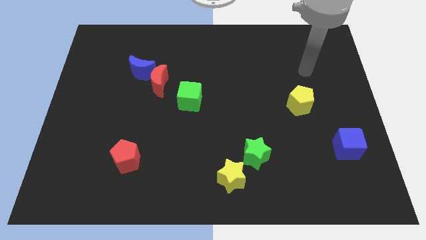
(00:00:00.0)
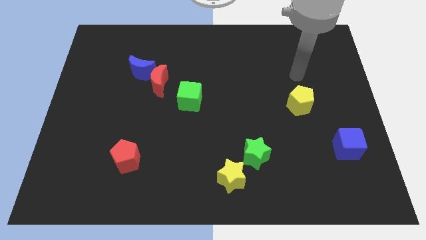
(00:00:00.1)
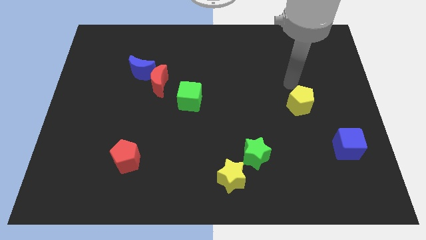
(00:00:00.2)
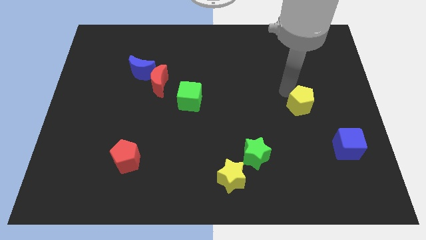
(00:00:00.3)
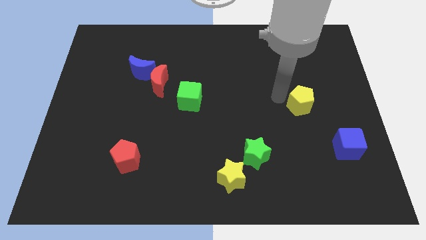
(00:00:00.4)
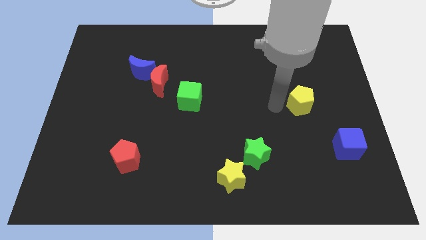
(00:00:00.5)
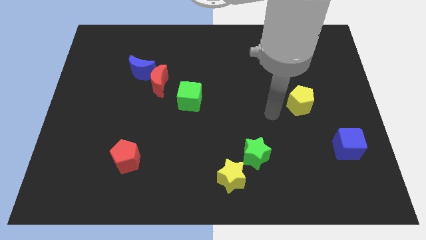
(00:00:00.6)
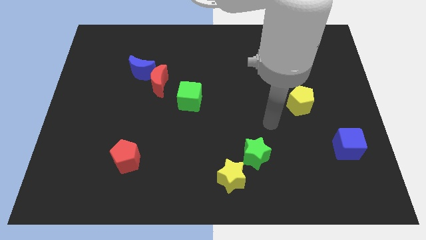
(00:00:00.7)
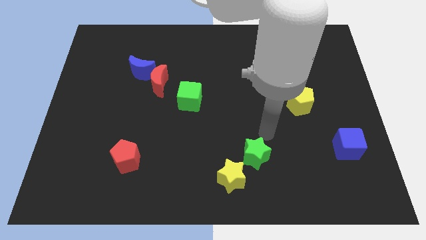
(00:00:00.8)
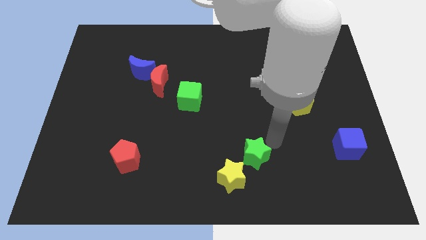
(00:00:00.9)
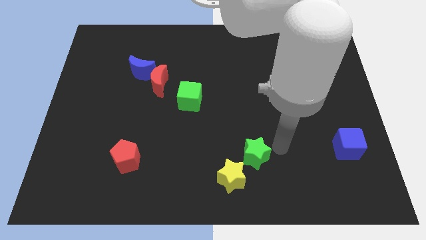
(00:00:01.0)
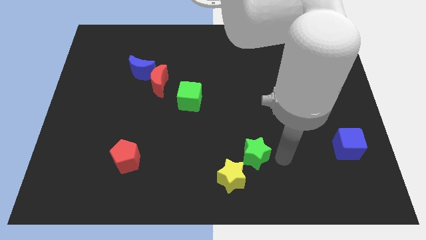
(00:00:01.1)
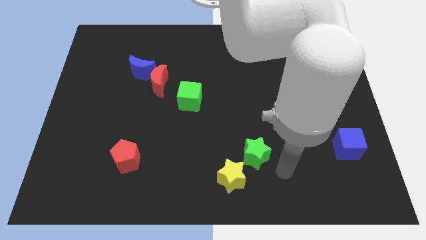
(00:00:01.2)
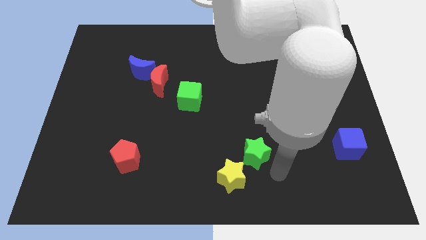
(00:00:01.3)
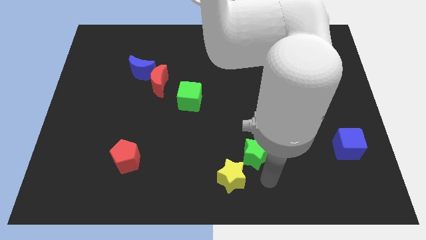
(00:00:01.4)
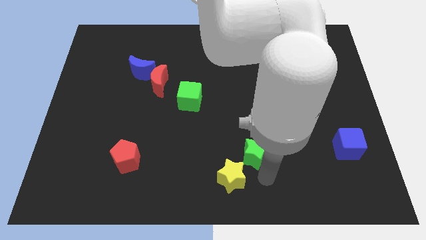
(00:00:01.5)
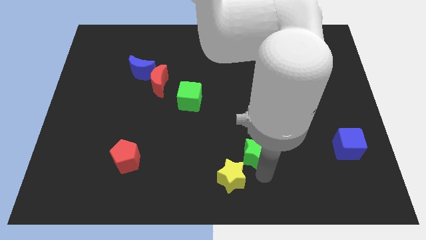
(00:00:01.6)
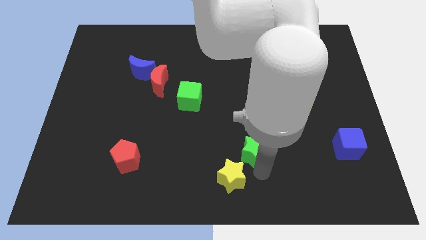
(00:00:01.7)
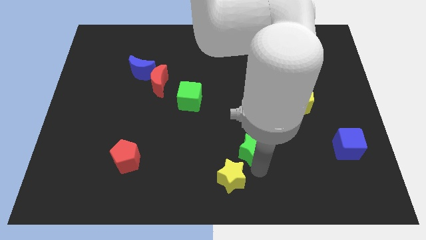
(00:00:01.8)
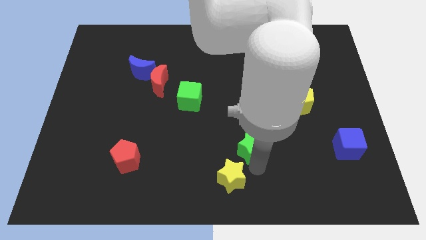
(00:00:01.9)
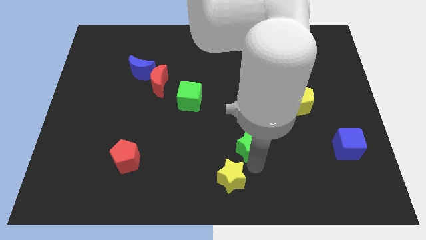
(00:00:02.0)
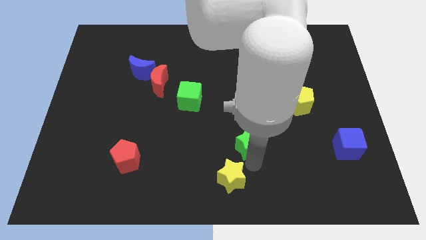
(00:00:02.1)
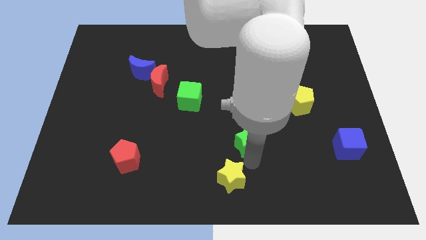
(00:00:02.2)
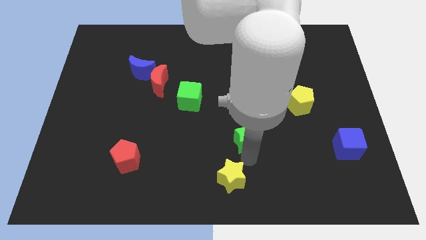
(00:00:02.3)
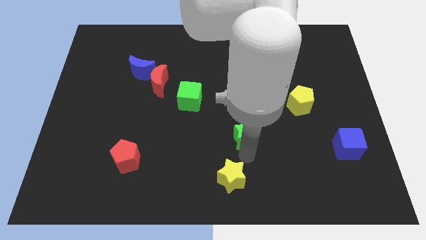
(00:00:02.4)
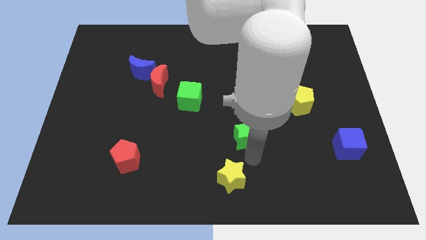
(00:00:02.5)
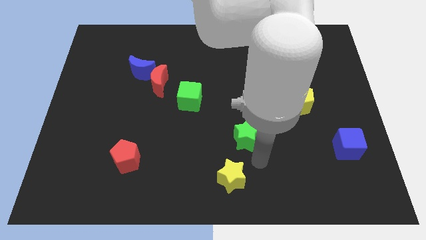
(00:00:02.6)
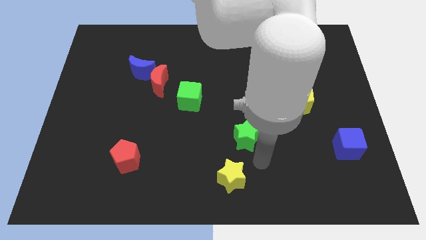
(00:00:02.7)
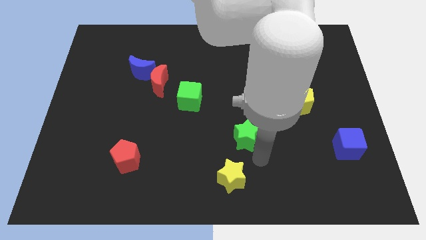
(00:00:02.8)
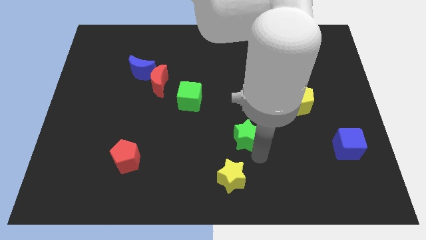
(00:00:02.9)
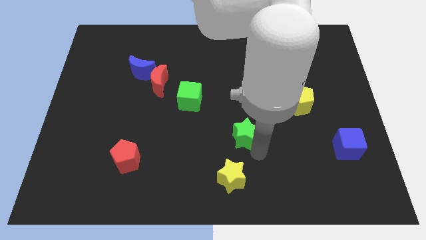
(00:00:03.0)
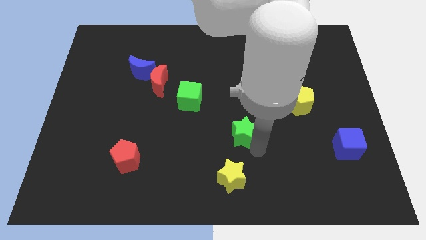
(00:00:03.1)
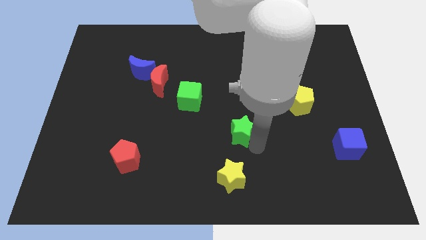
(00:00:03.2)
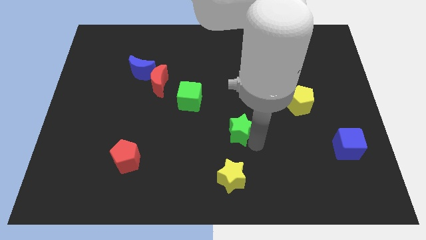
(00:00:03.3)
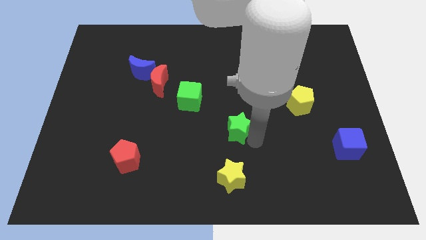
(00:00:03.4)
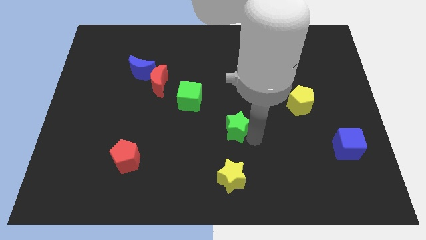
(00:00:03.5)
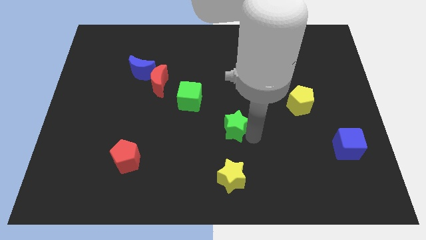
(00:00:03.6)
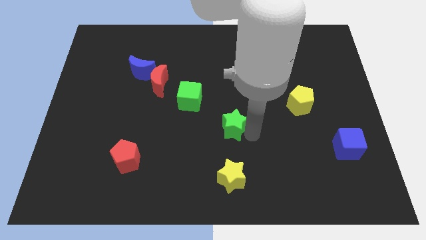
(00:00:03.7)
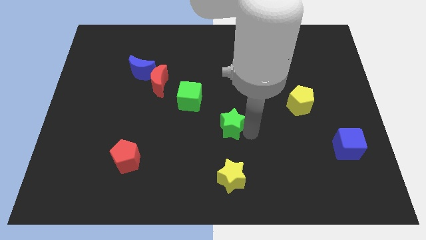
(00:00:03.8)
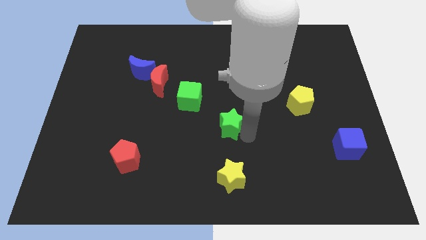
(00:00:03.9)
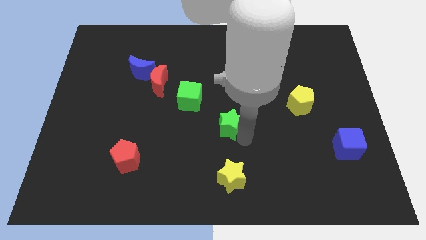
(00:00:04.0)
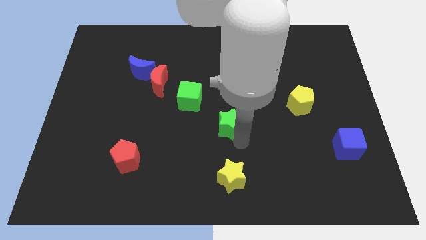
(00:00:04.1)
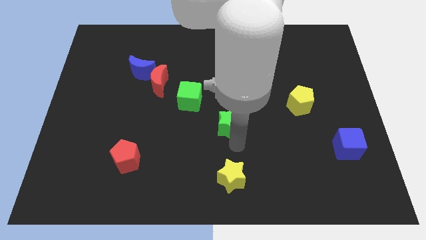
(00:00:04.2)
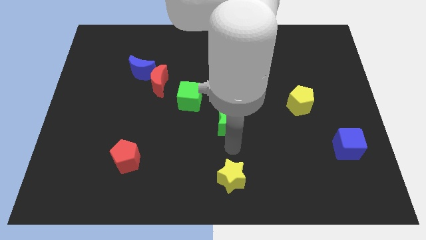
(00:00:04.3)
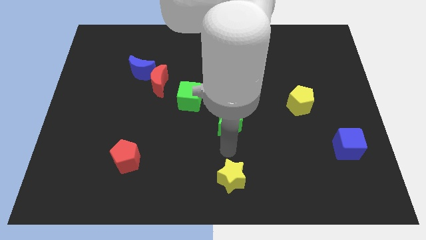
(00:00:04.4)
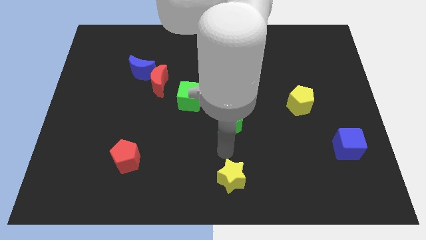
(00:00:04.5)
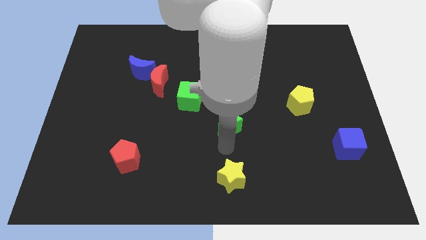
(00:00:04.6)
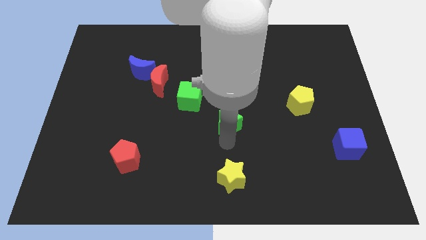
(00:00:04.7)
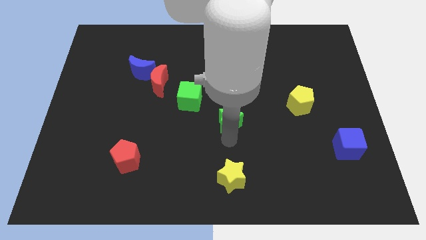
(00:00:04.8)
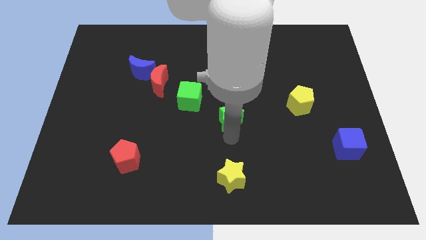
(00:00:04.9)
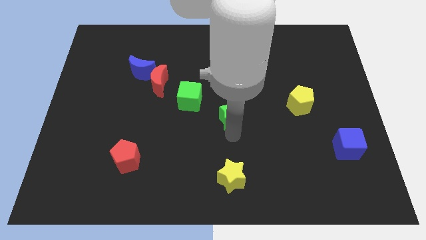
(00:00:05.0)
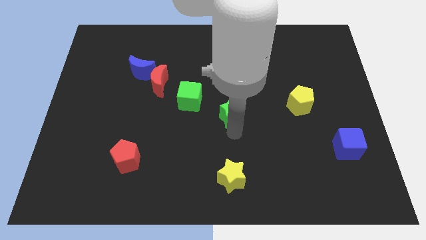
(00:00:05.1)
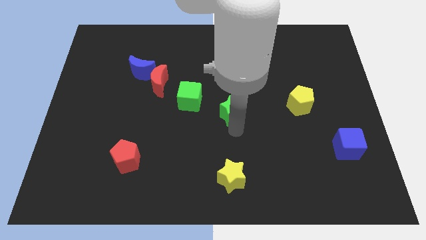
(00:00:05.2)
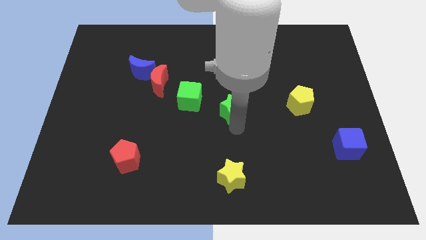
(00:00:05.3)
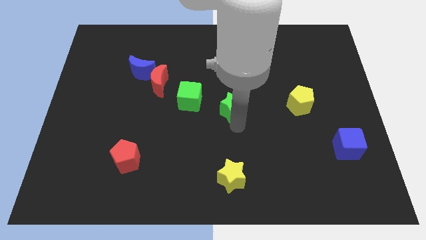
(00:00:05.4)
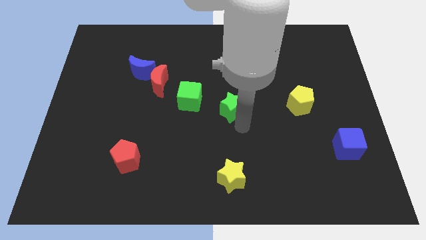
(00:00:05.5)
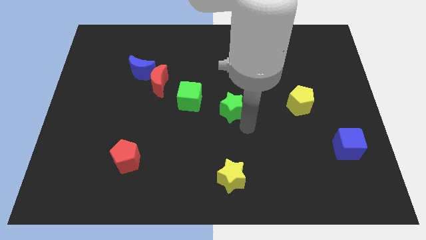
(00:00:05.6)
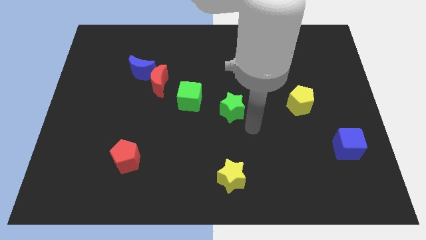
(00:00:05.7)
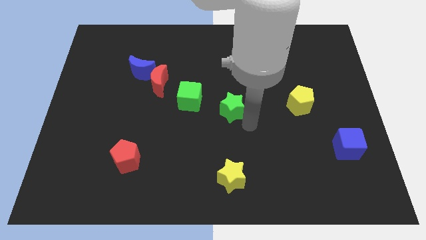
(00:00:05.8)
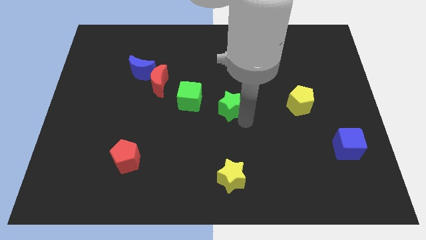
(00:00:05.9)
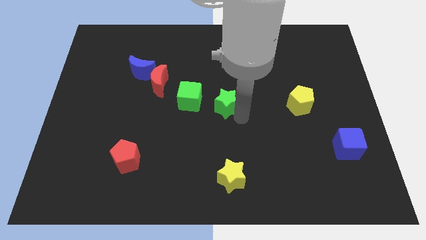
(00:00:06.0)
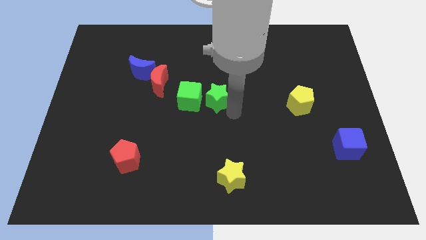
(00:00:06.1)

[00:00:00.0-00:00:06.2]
slide the green star to the top right of the green cube

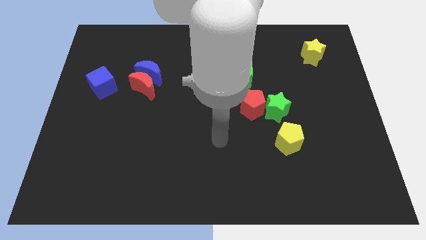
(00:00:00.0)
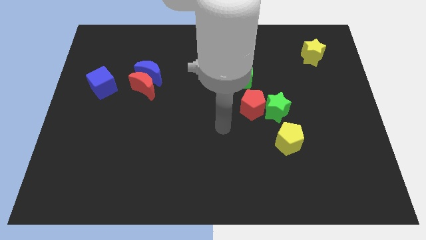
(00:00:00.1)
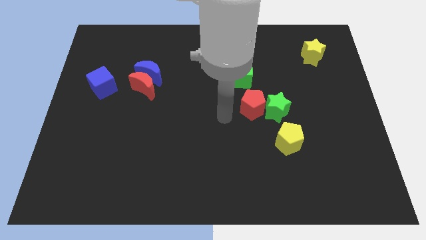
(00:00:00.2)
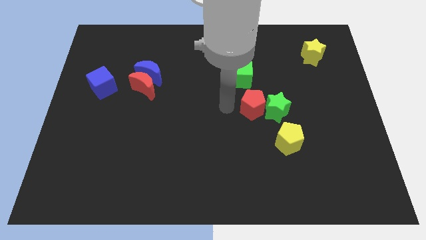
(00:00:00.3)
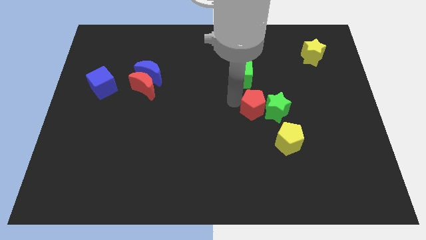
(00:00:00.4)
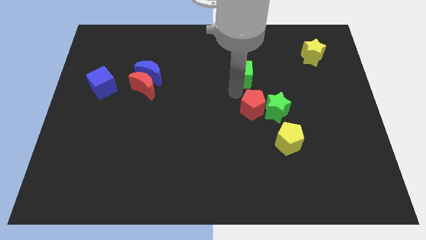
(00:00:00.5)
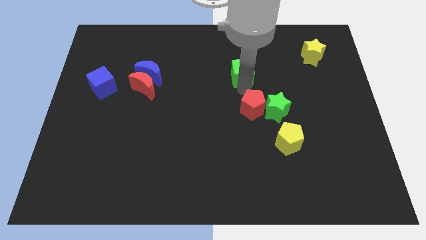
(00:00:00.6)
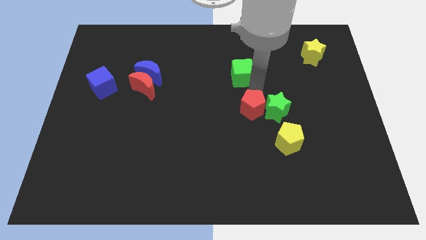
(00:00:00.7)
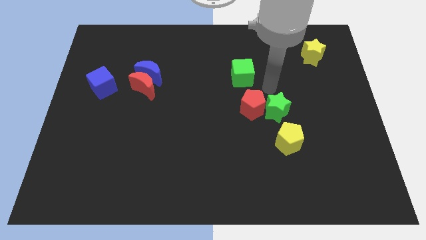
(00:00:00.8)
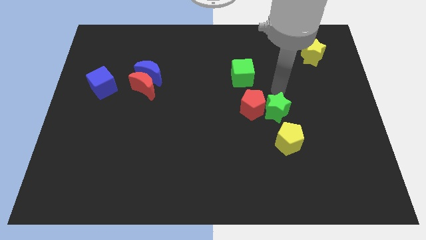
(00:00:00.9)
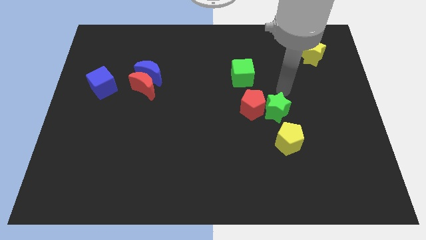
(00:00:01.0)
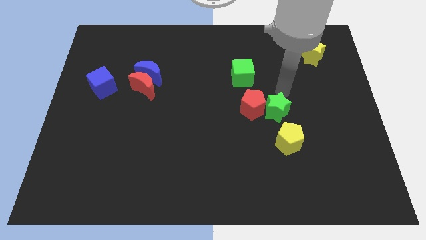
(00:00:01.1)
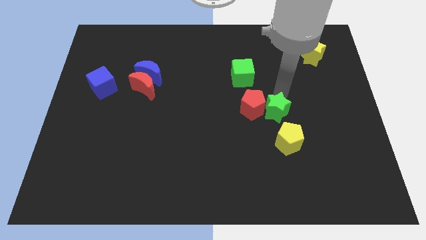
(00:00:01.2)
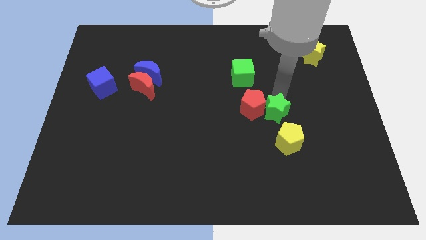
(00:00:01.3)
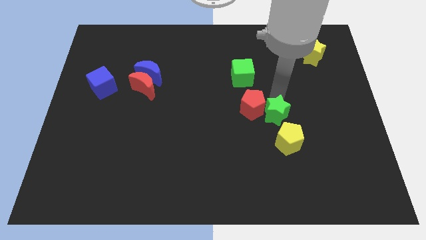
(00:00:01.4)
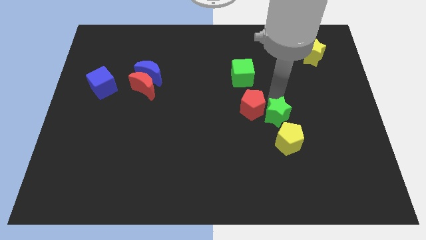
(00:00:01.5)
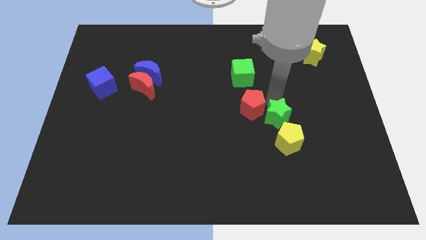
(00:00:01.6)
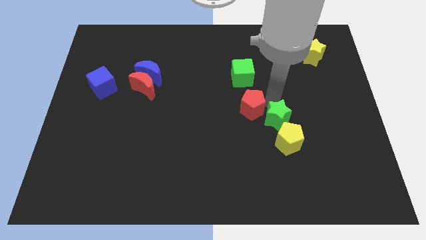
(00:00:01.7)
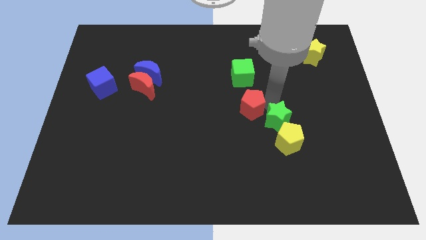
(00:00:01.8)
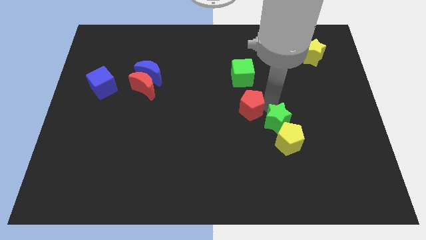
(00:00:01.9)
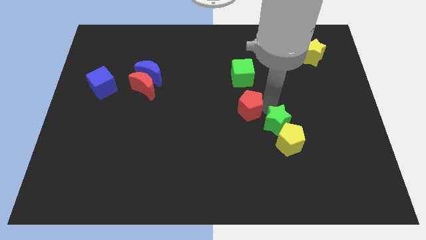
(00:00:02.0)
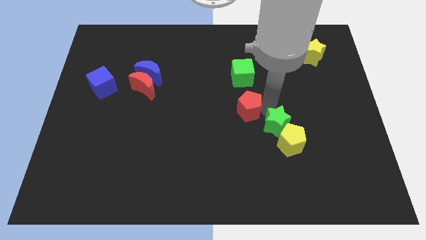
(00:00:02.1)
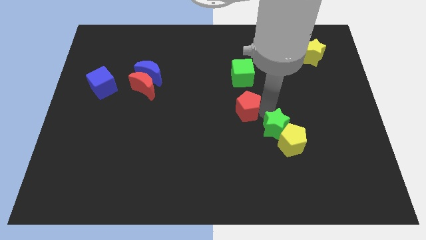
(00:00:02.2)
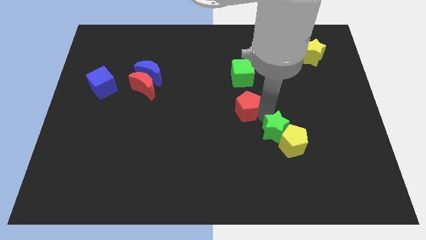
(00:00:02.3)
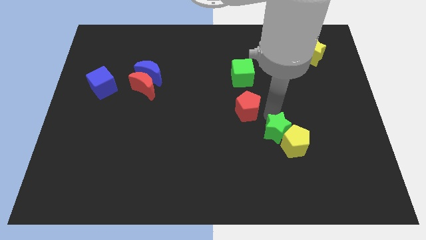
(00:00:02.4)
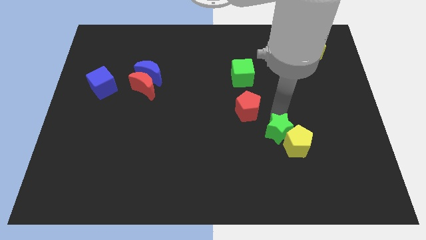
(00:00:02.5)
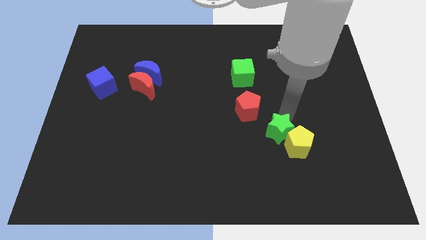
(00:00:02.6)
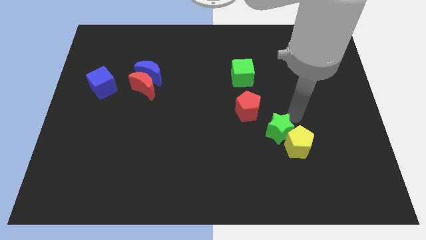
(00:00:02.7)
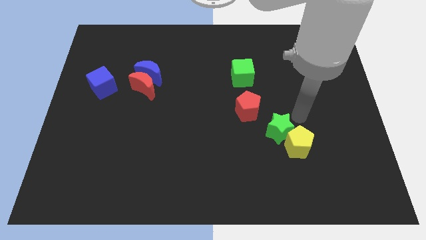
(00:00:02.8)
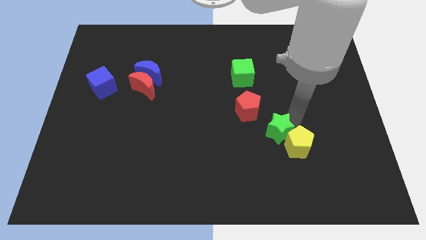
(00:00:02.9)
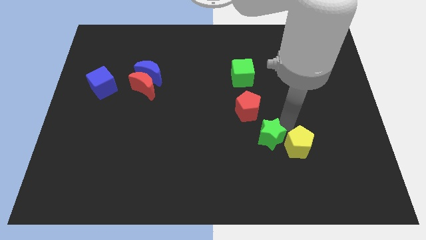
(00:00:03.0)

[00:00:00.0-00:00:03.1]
slide the green star to the bottom of the red pentagon
